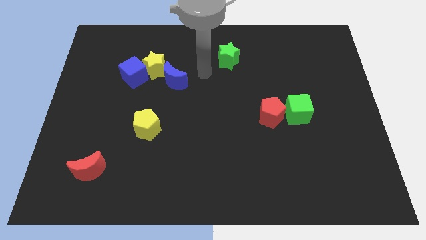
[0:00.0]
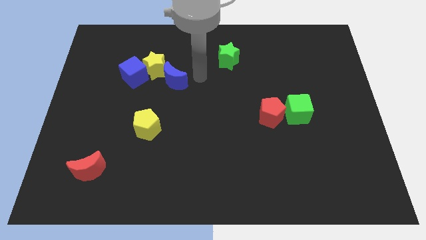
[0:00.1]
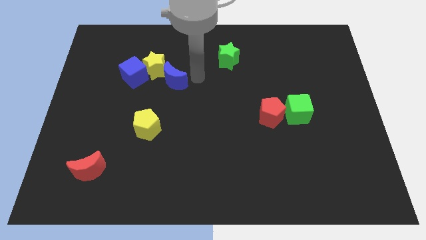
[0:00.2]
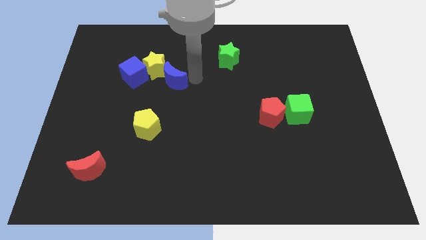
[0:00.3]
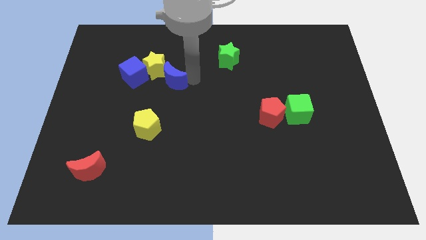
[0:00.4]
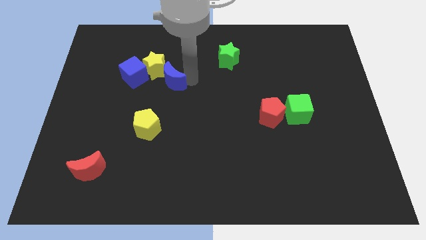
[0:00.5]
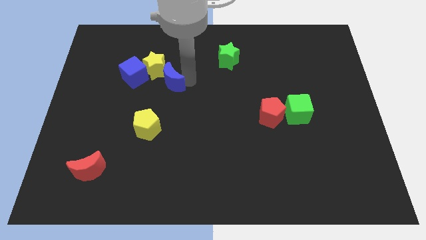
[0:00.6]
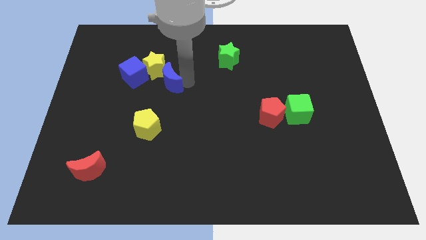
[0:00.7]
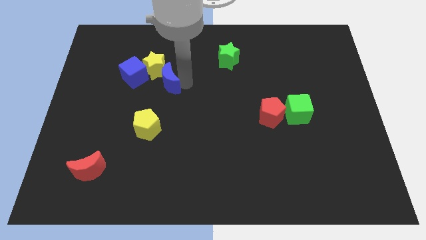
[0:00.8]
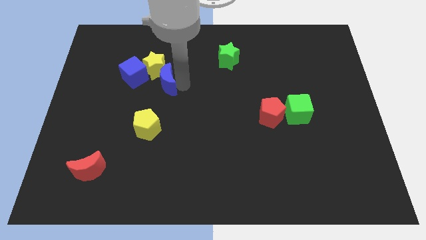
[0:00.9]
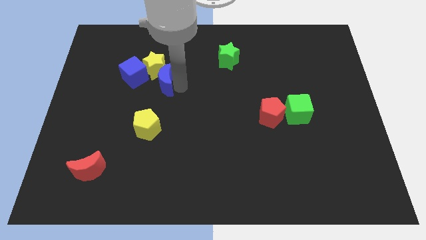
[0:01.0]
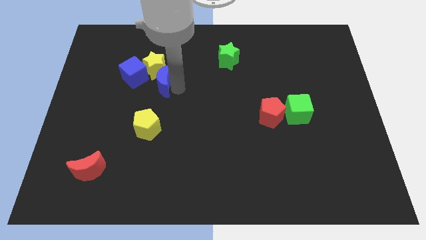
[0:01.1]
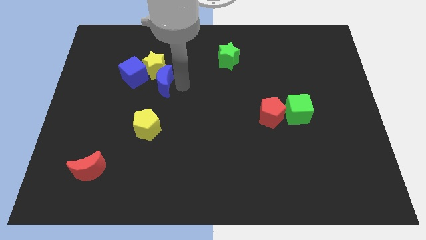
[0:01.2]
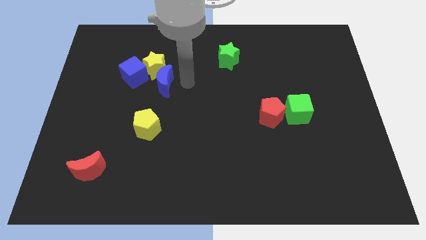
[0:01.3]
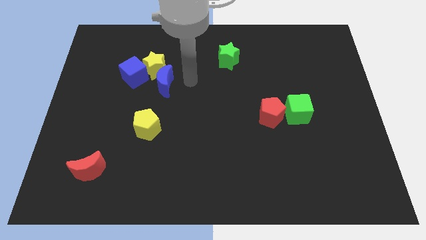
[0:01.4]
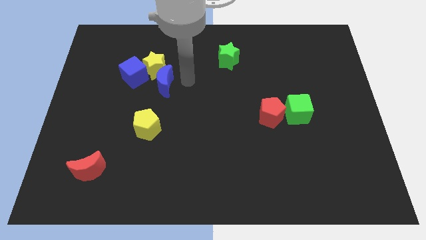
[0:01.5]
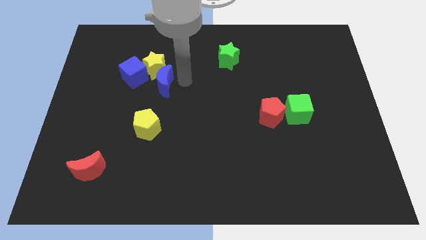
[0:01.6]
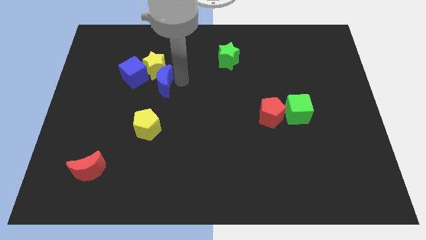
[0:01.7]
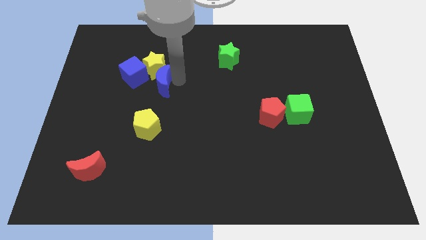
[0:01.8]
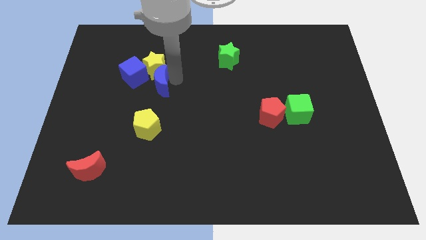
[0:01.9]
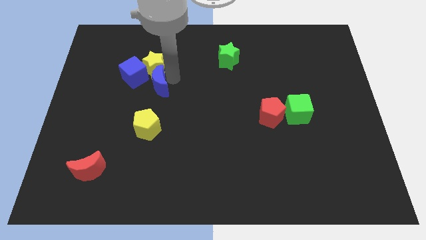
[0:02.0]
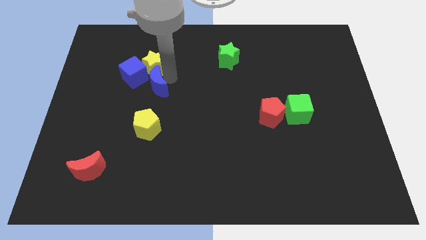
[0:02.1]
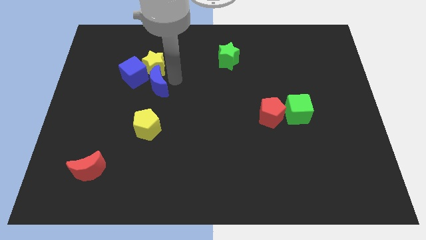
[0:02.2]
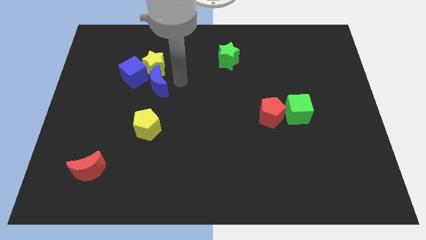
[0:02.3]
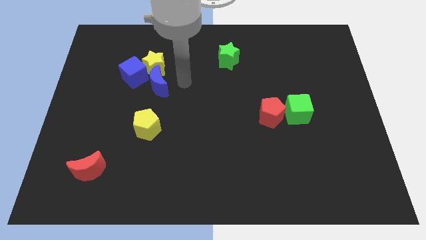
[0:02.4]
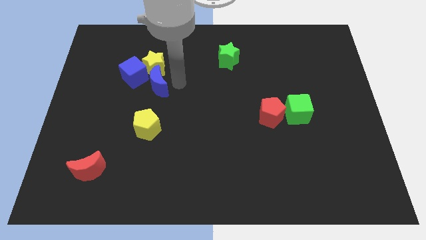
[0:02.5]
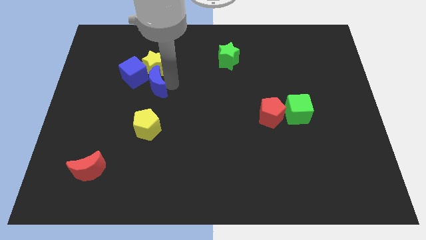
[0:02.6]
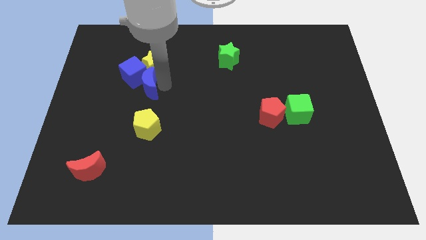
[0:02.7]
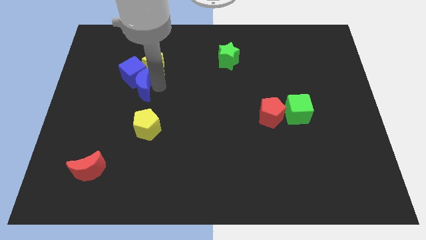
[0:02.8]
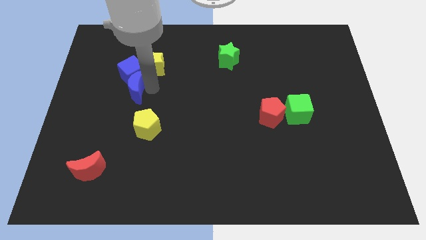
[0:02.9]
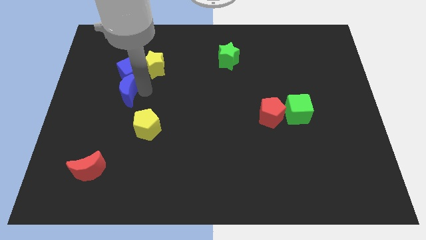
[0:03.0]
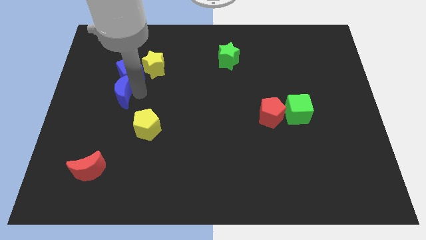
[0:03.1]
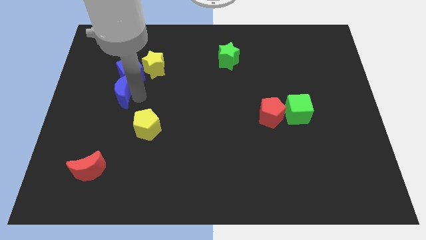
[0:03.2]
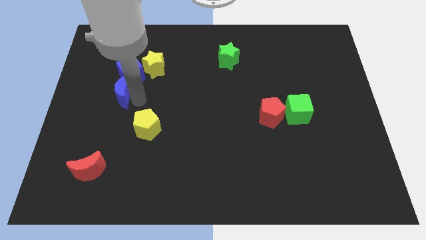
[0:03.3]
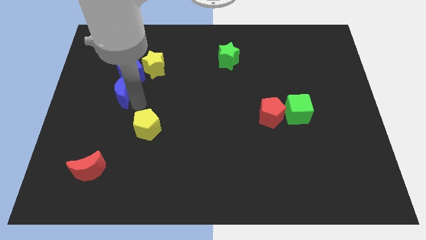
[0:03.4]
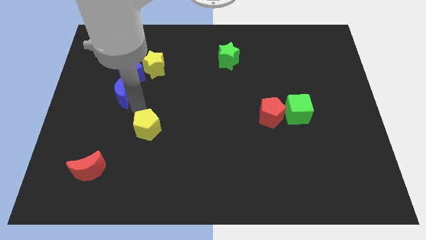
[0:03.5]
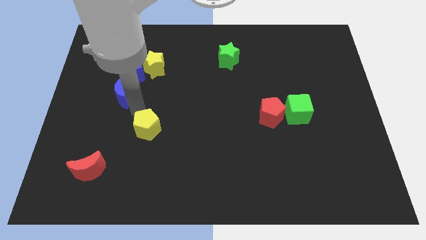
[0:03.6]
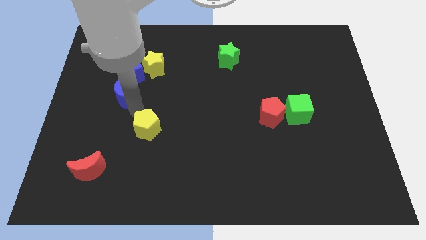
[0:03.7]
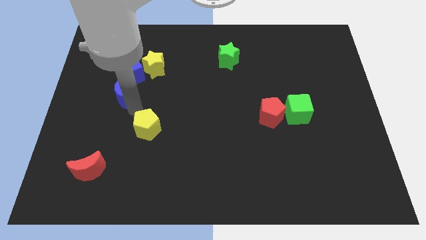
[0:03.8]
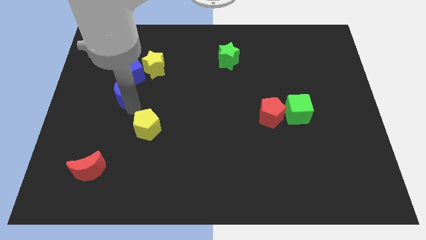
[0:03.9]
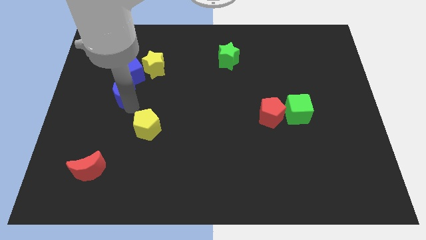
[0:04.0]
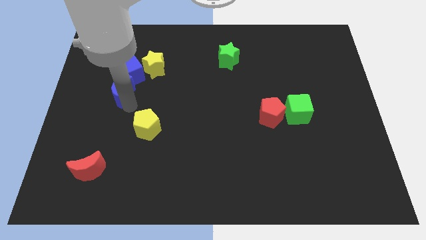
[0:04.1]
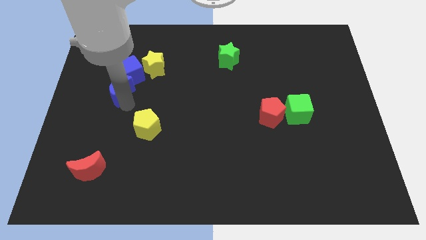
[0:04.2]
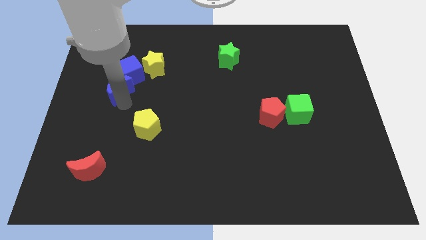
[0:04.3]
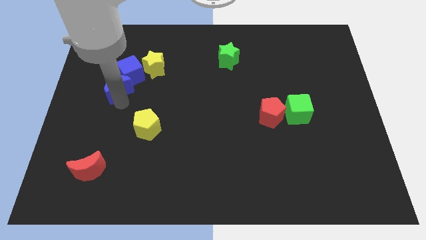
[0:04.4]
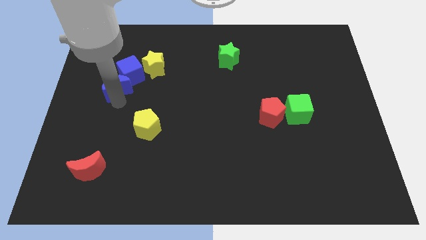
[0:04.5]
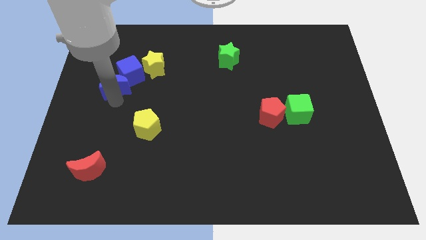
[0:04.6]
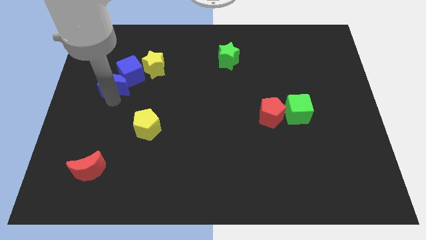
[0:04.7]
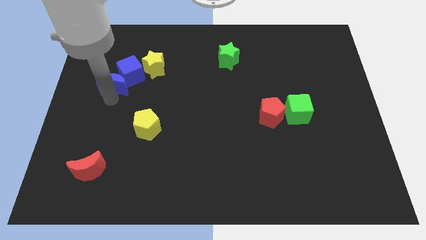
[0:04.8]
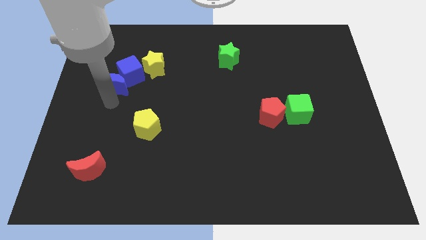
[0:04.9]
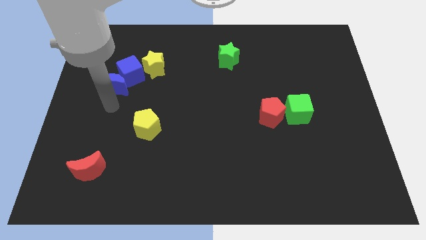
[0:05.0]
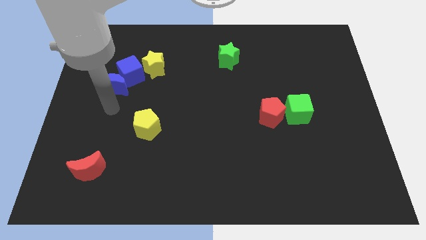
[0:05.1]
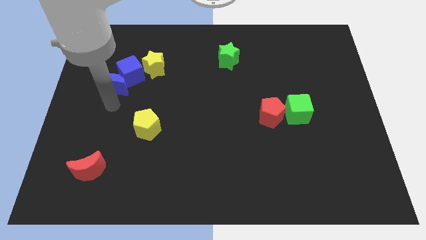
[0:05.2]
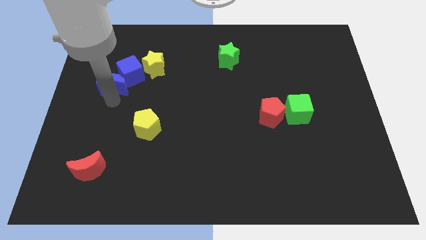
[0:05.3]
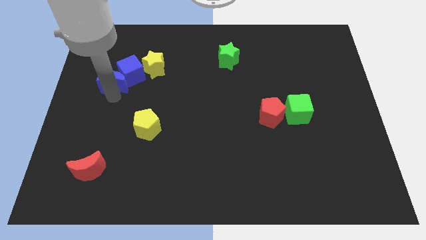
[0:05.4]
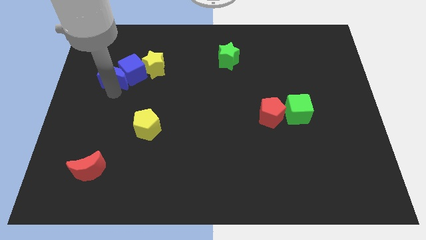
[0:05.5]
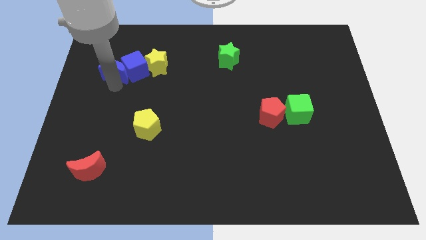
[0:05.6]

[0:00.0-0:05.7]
move the blue moon to the top left of the blue cube

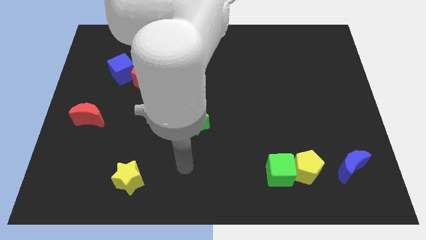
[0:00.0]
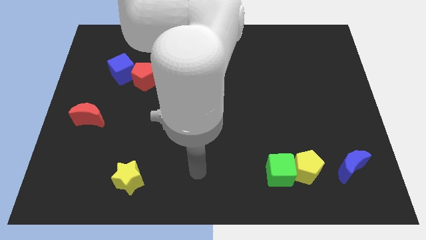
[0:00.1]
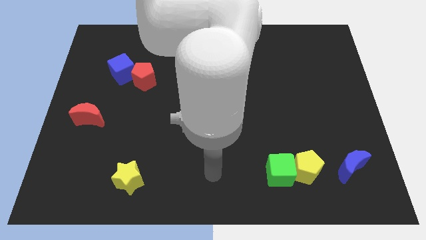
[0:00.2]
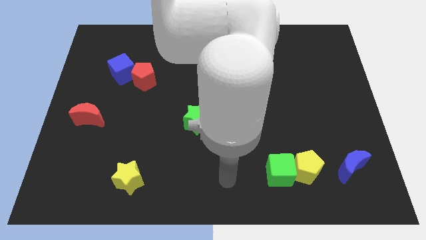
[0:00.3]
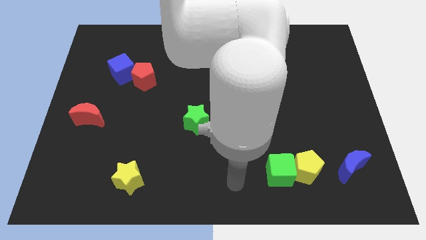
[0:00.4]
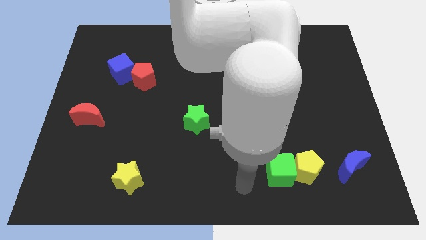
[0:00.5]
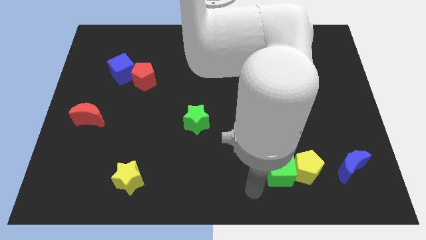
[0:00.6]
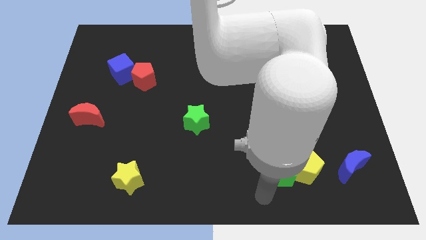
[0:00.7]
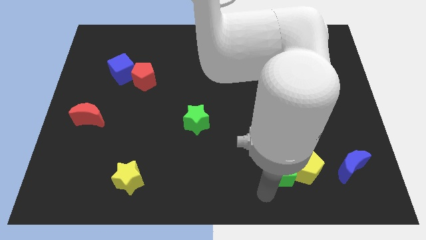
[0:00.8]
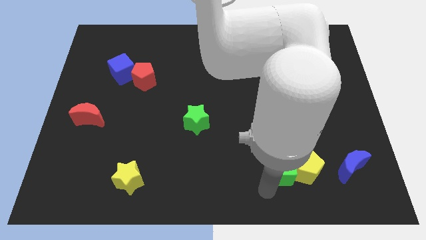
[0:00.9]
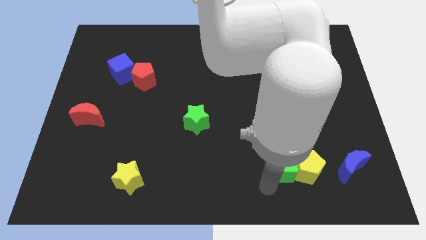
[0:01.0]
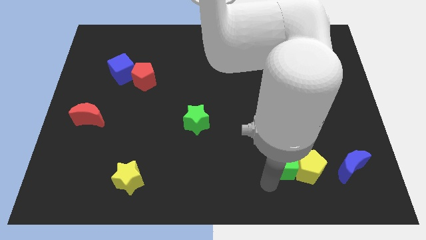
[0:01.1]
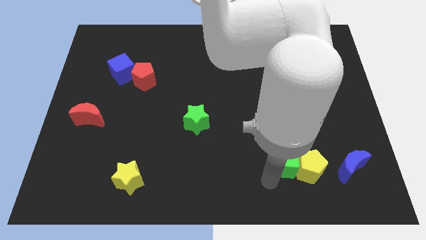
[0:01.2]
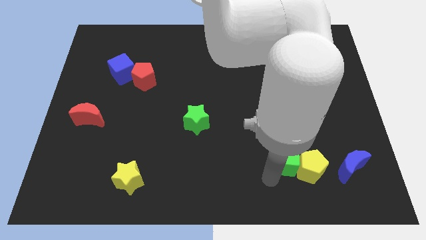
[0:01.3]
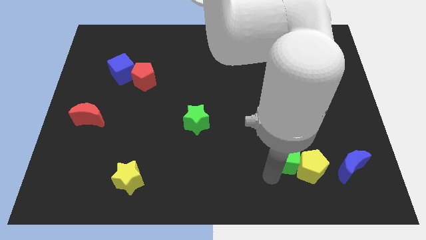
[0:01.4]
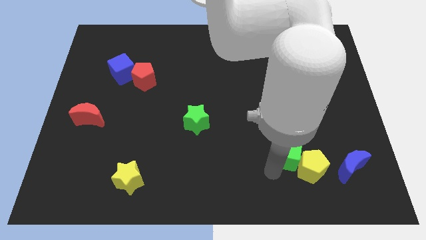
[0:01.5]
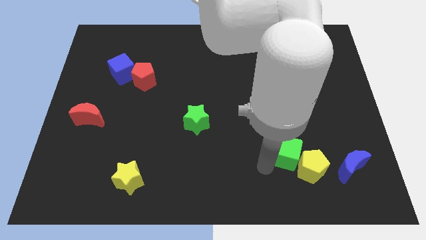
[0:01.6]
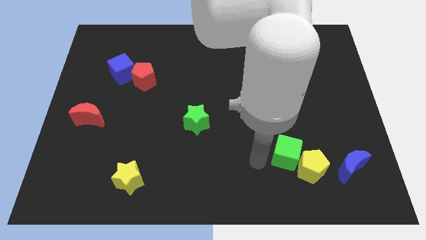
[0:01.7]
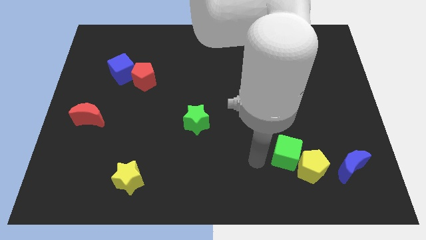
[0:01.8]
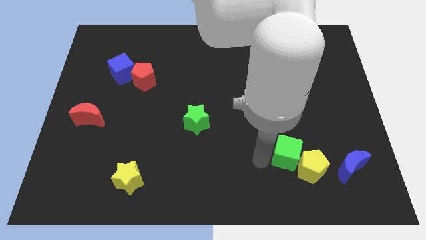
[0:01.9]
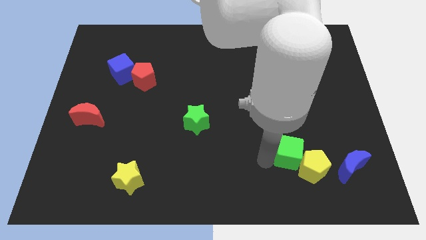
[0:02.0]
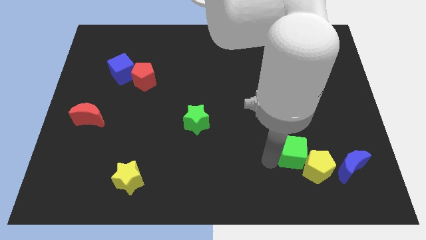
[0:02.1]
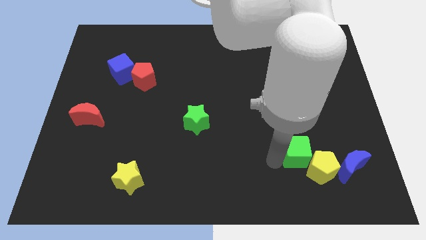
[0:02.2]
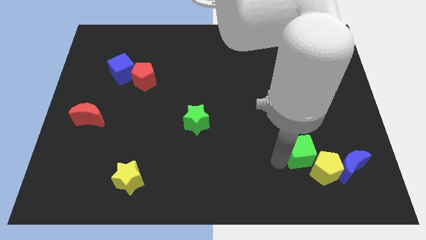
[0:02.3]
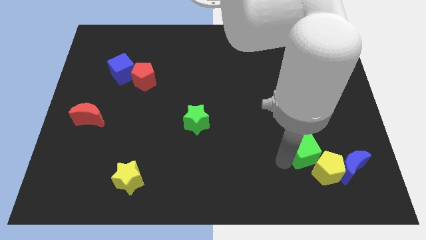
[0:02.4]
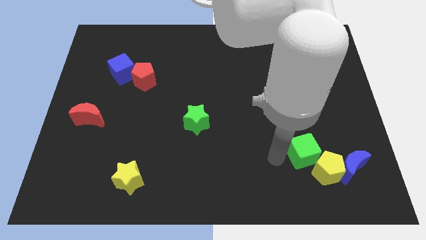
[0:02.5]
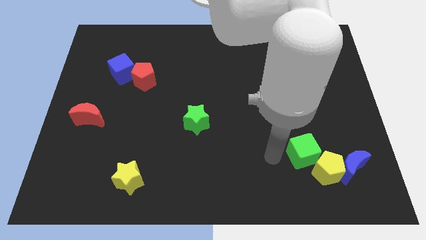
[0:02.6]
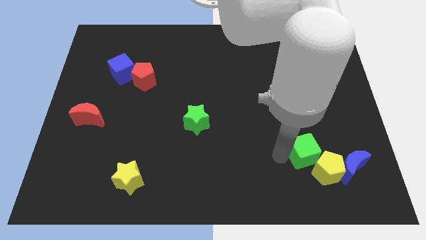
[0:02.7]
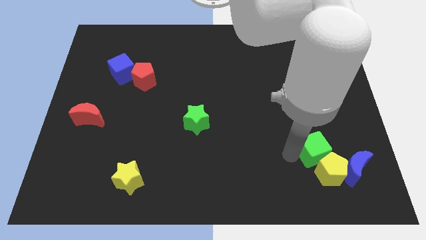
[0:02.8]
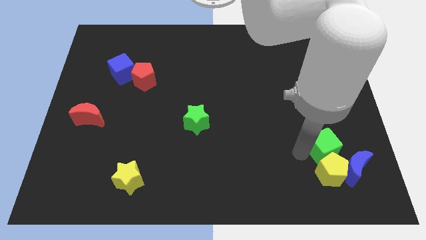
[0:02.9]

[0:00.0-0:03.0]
push the green cube diagonally up and to the right of the yellow pentagon
